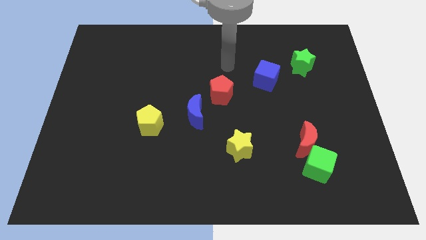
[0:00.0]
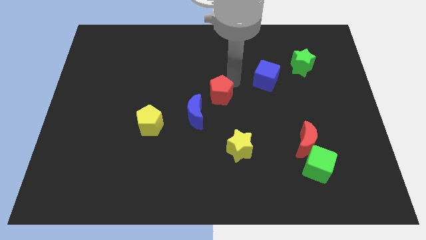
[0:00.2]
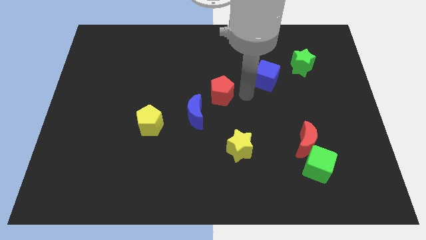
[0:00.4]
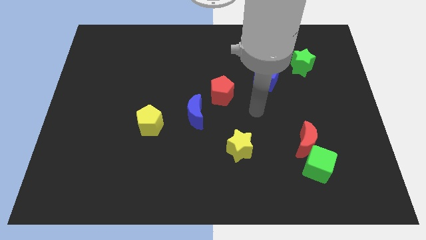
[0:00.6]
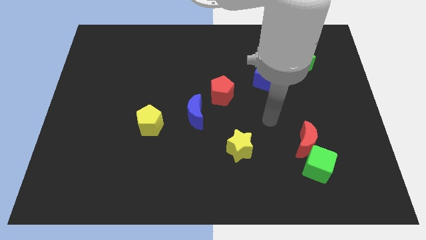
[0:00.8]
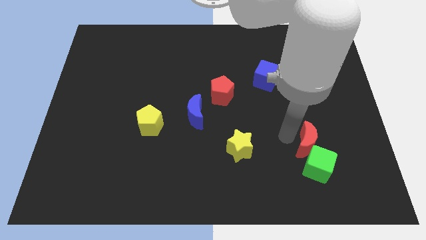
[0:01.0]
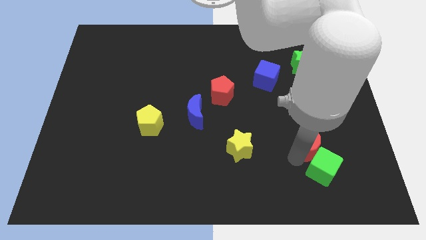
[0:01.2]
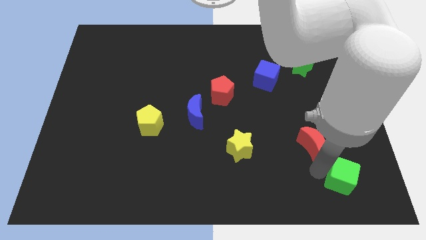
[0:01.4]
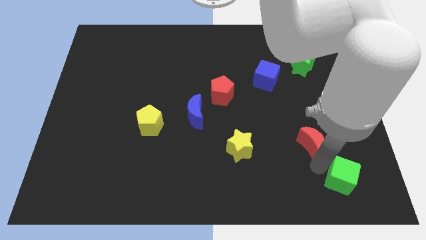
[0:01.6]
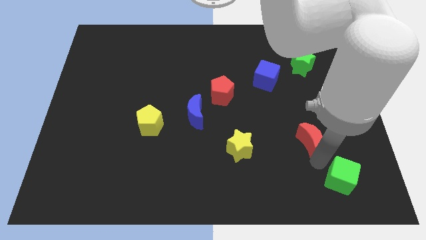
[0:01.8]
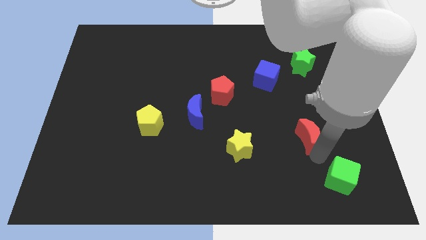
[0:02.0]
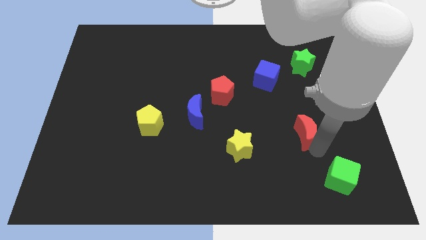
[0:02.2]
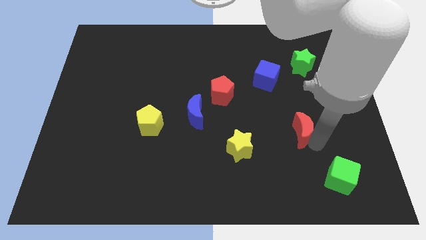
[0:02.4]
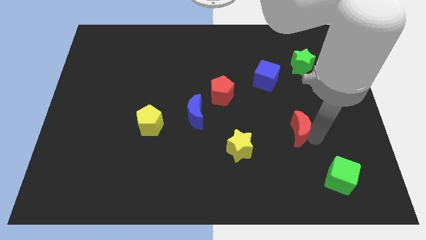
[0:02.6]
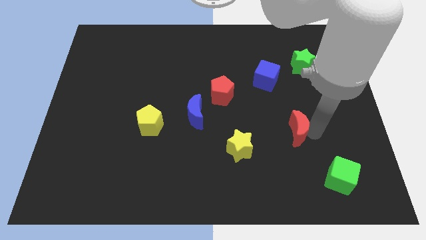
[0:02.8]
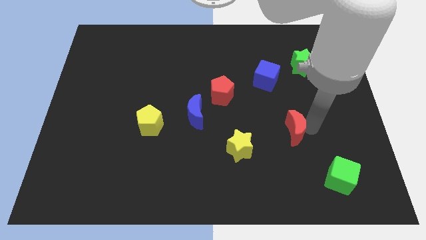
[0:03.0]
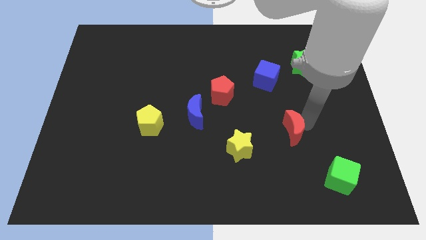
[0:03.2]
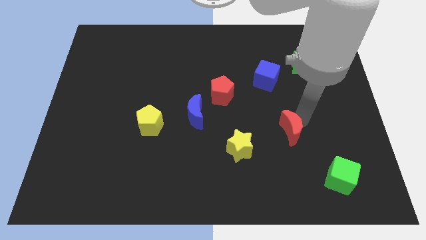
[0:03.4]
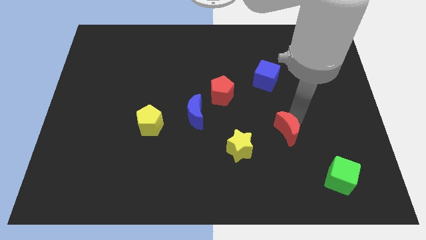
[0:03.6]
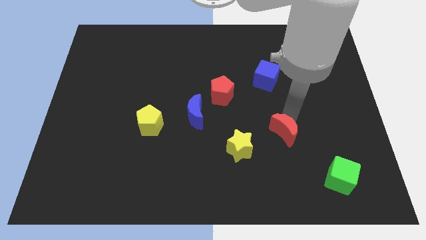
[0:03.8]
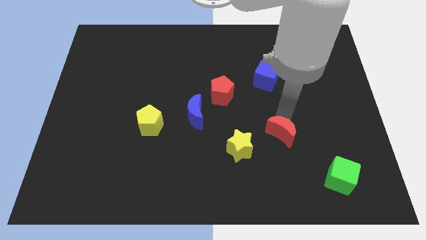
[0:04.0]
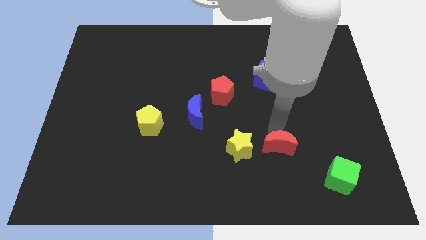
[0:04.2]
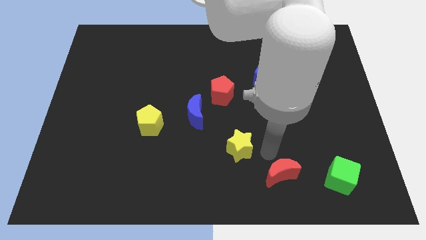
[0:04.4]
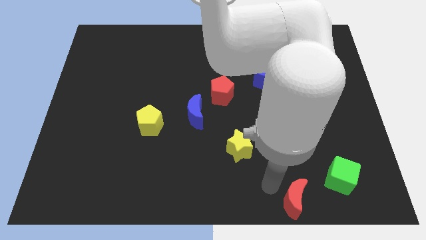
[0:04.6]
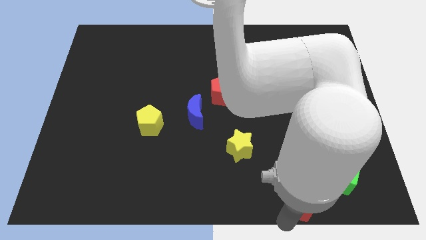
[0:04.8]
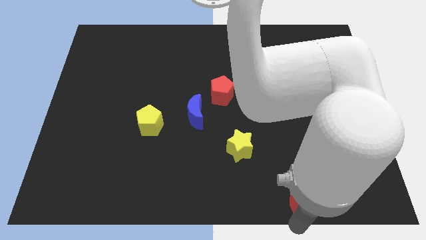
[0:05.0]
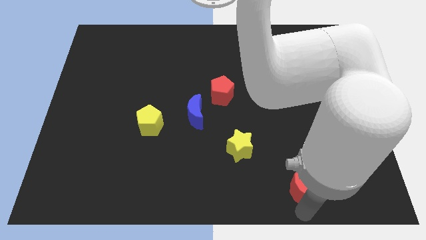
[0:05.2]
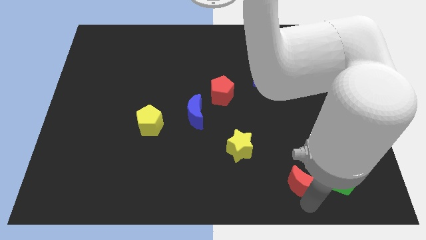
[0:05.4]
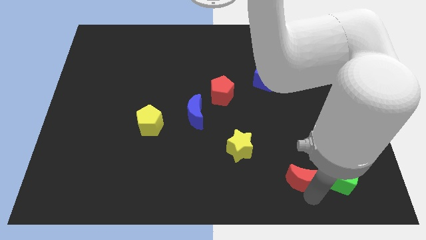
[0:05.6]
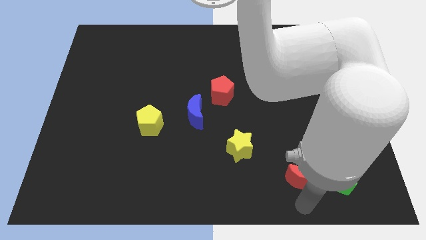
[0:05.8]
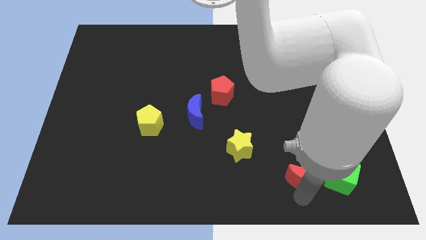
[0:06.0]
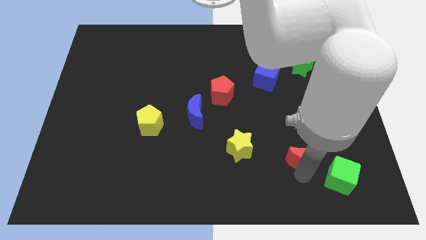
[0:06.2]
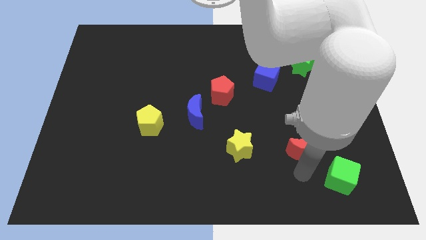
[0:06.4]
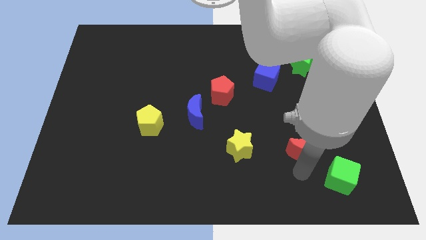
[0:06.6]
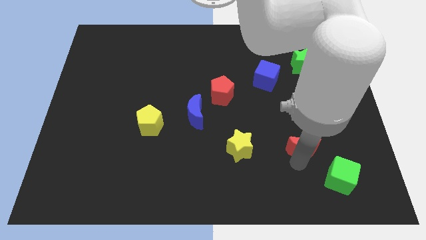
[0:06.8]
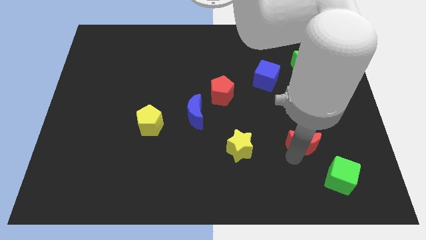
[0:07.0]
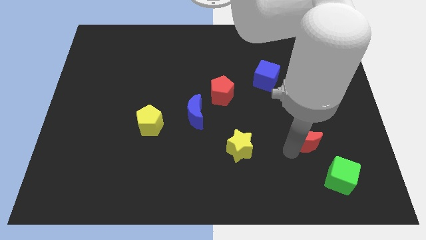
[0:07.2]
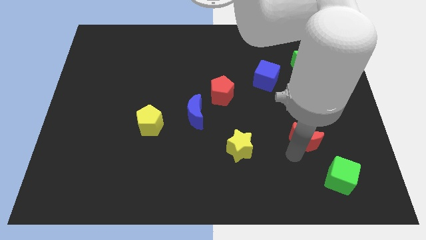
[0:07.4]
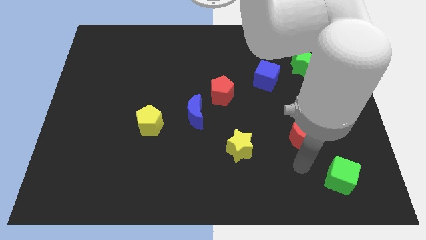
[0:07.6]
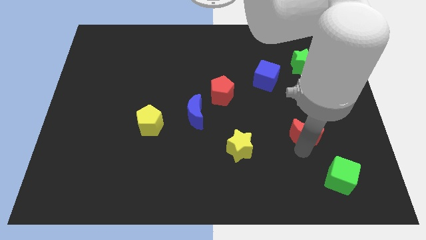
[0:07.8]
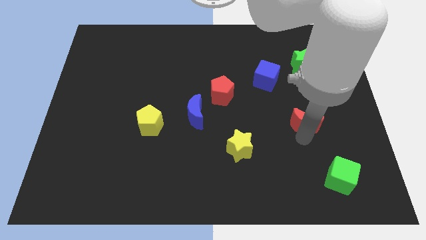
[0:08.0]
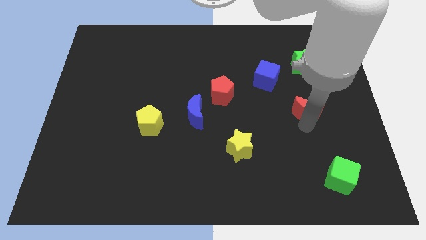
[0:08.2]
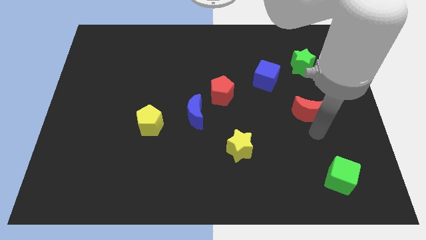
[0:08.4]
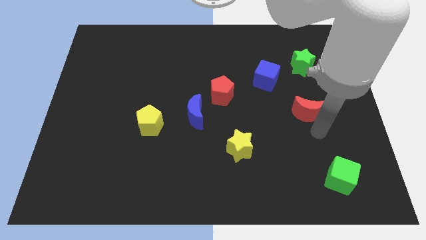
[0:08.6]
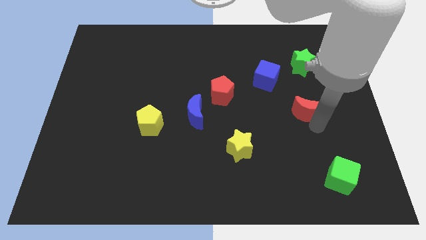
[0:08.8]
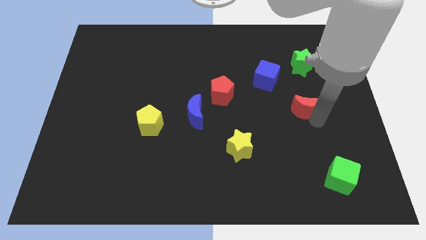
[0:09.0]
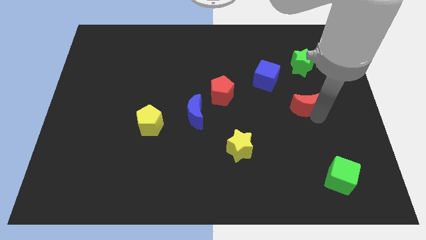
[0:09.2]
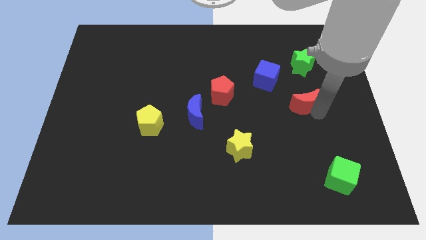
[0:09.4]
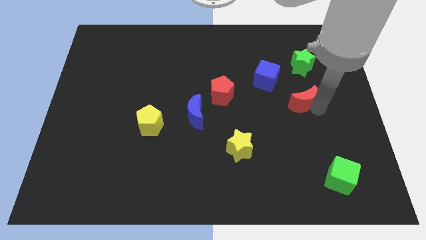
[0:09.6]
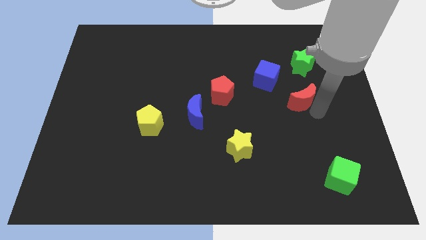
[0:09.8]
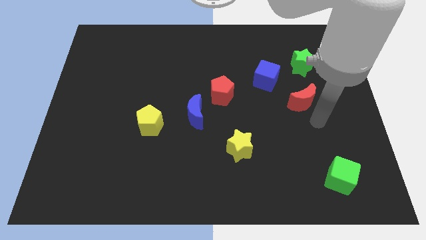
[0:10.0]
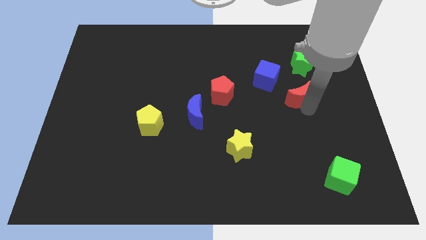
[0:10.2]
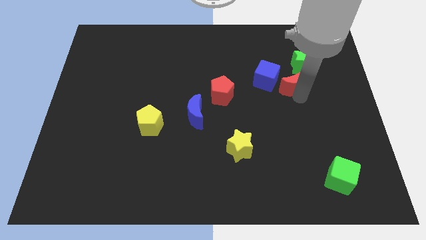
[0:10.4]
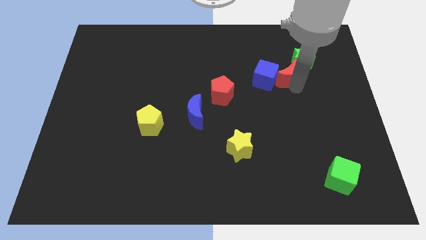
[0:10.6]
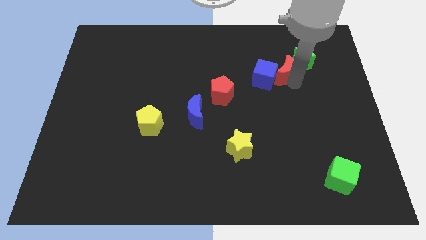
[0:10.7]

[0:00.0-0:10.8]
move the red moon left of the green star

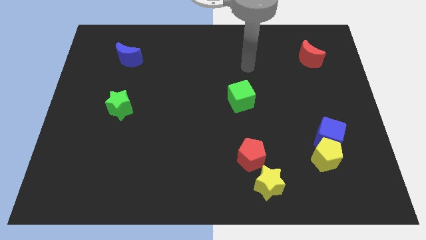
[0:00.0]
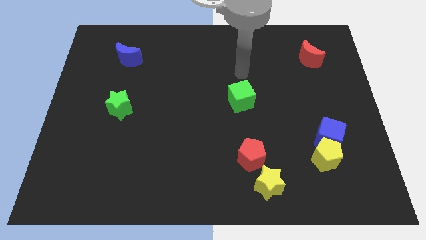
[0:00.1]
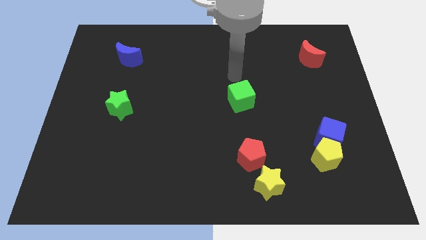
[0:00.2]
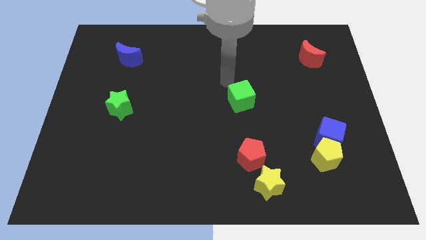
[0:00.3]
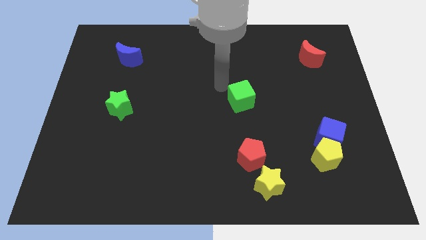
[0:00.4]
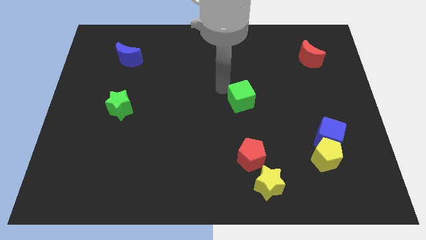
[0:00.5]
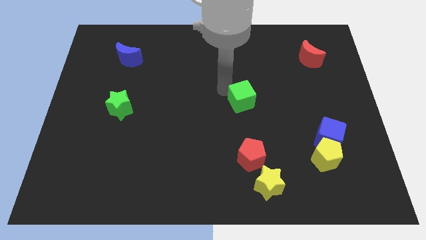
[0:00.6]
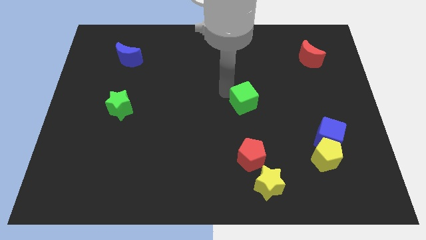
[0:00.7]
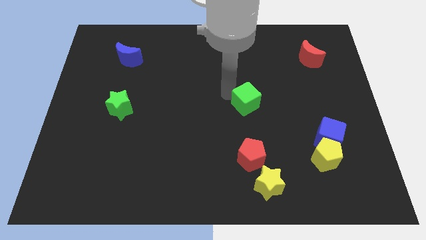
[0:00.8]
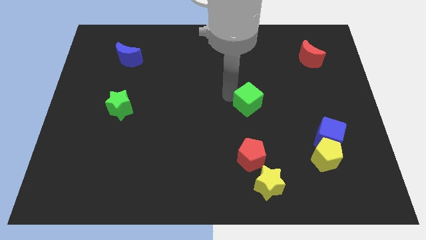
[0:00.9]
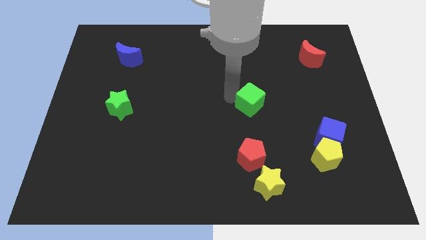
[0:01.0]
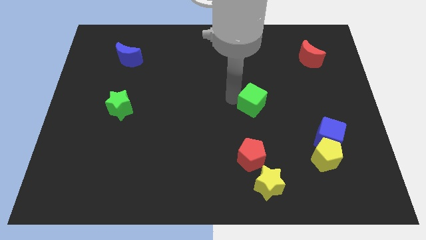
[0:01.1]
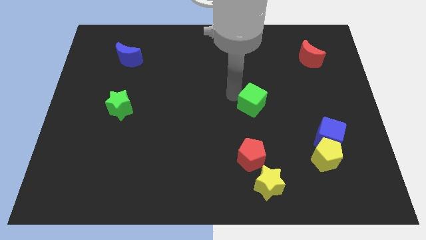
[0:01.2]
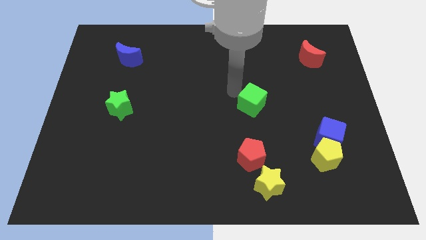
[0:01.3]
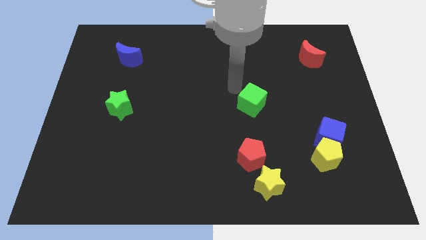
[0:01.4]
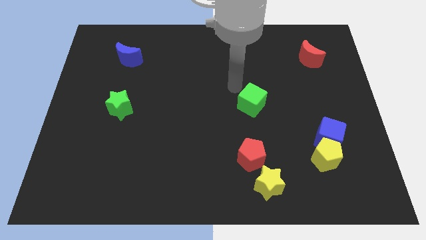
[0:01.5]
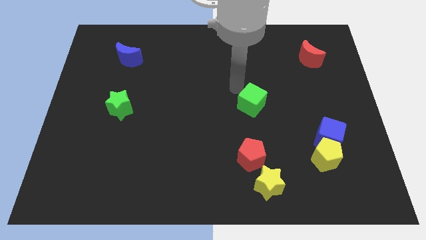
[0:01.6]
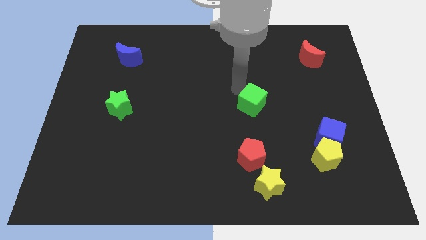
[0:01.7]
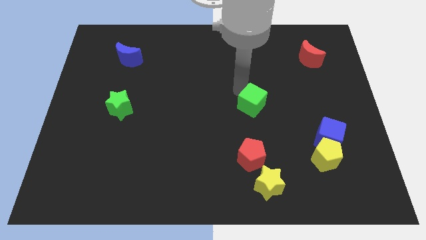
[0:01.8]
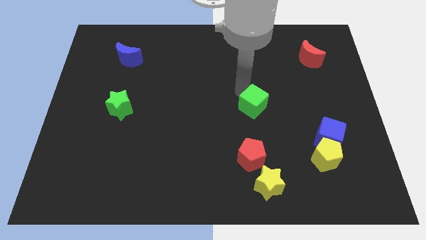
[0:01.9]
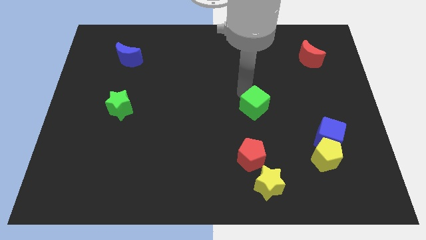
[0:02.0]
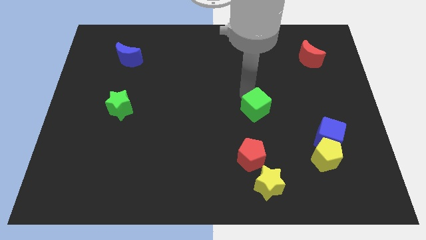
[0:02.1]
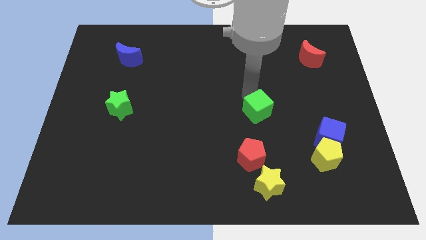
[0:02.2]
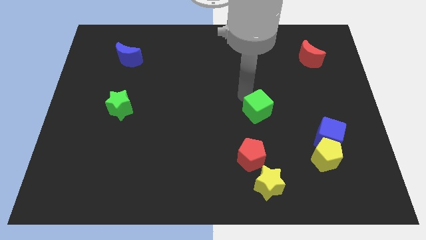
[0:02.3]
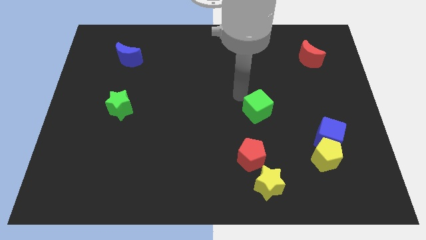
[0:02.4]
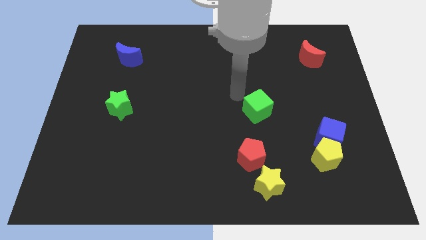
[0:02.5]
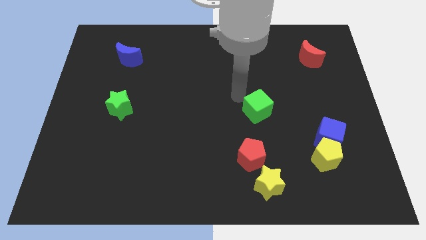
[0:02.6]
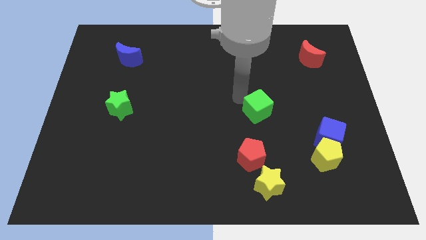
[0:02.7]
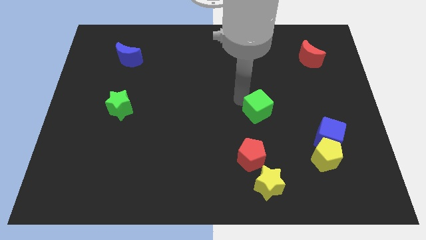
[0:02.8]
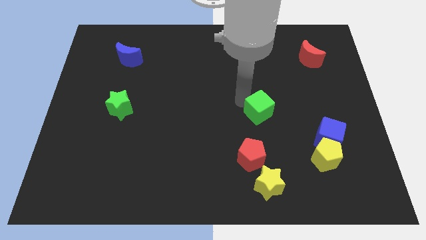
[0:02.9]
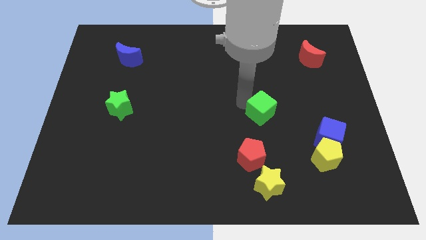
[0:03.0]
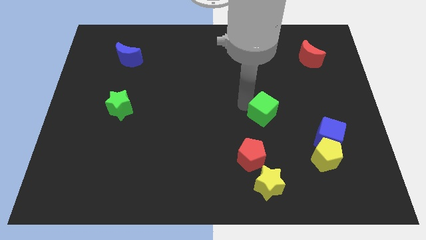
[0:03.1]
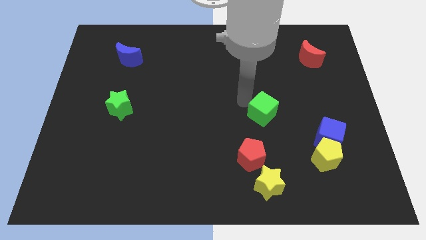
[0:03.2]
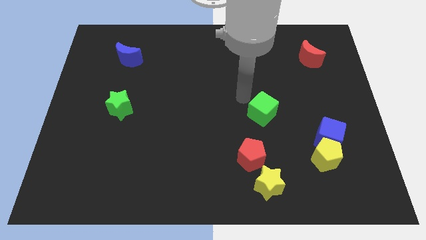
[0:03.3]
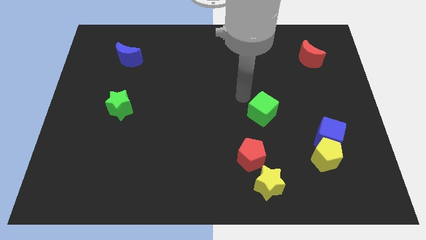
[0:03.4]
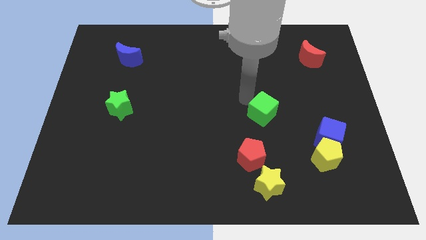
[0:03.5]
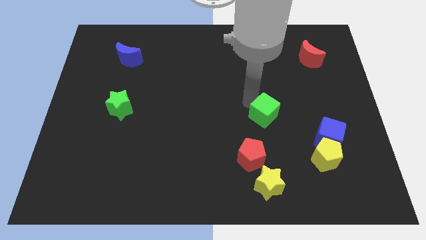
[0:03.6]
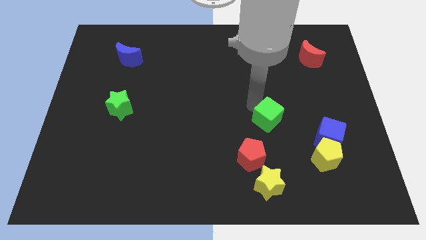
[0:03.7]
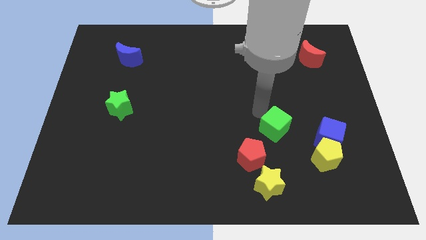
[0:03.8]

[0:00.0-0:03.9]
slide the green cube to the top left side of the yellow pentagon
